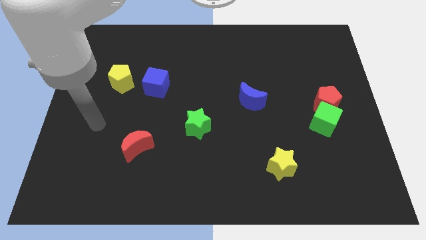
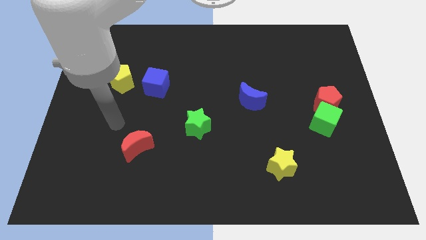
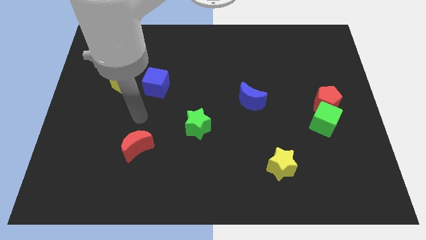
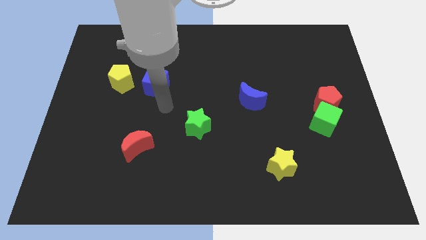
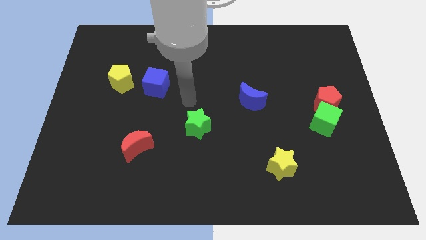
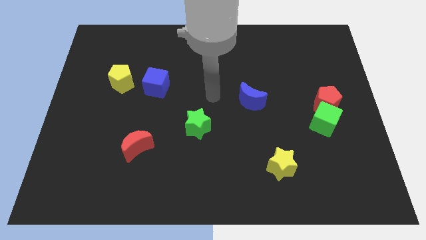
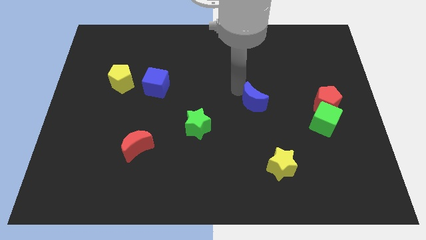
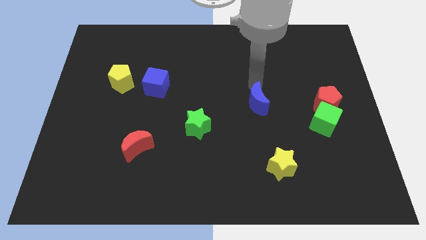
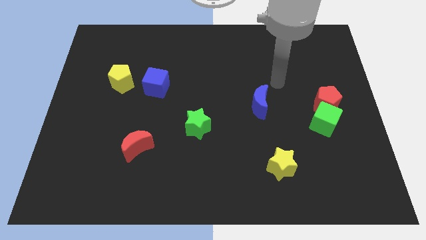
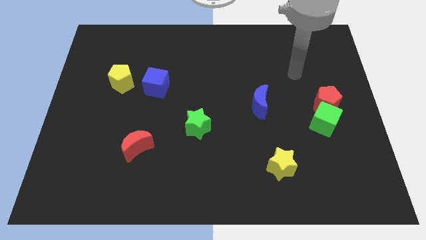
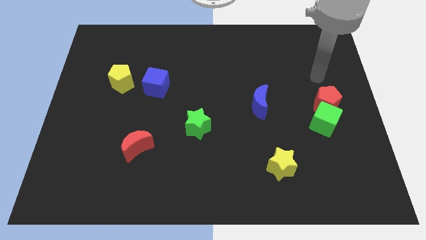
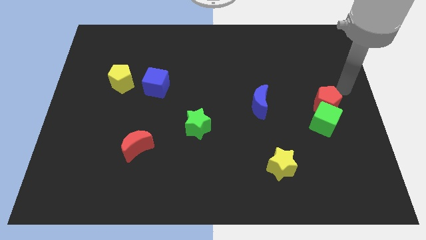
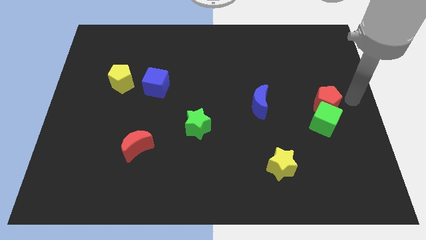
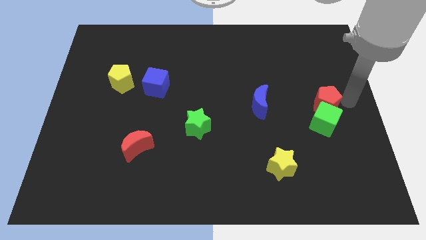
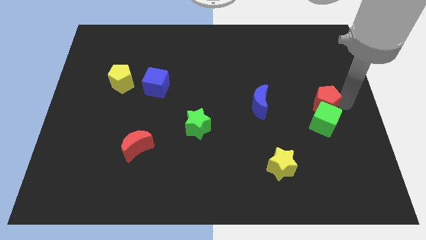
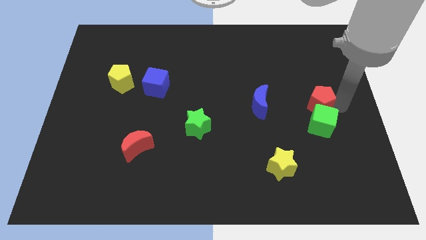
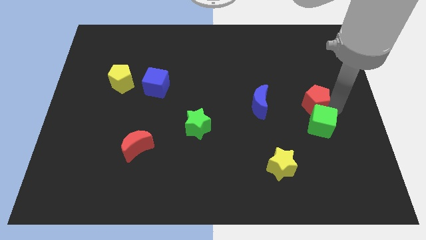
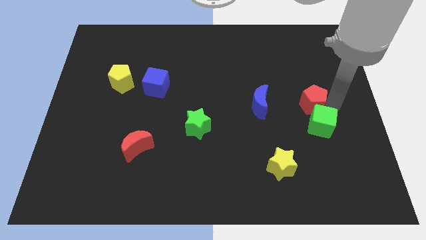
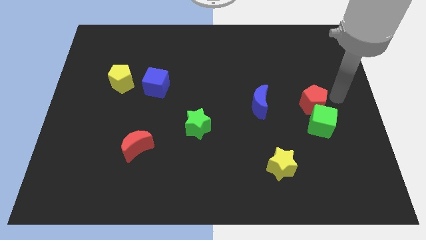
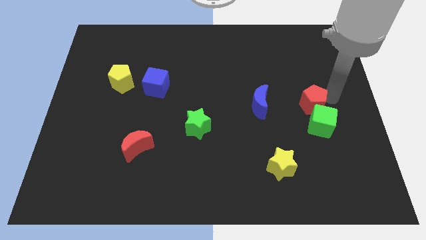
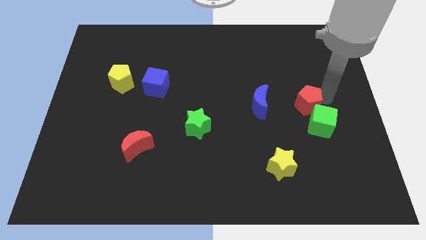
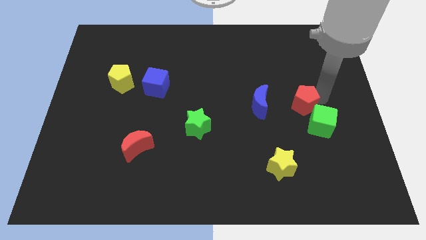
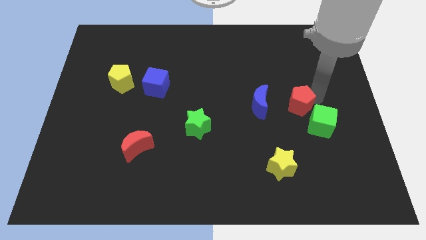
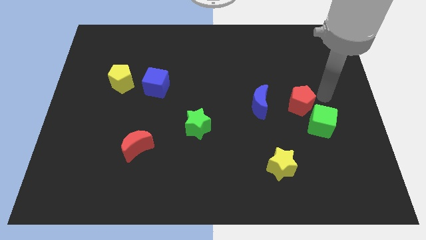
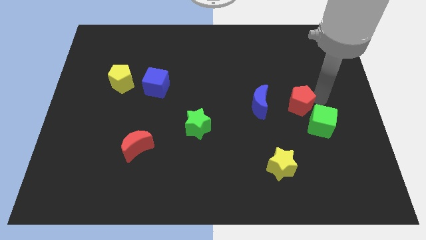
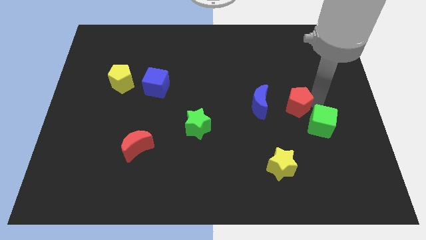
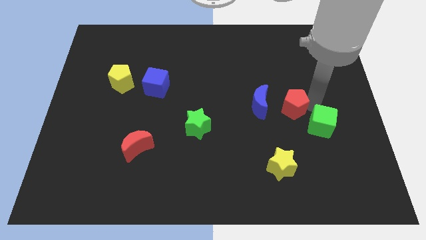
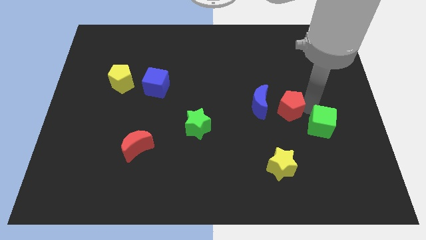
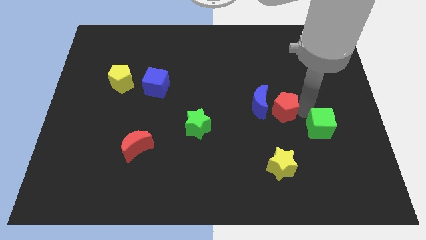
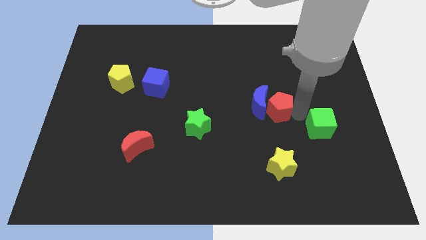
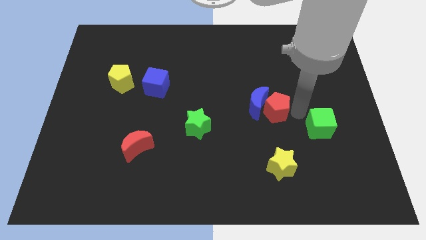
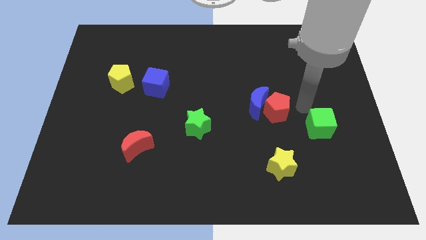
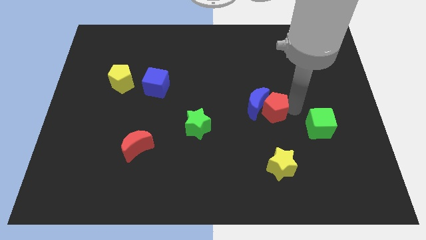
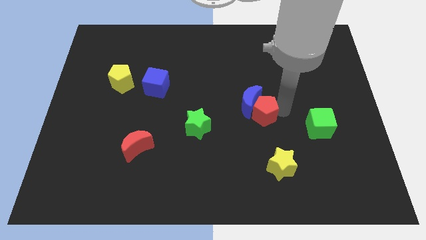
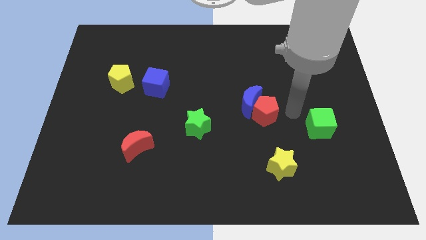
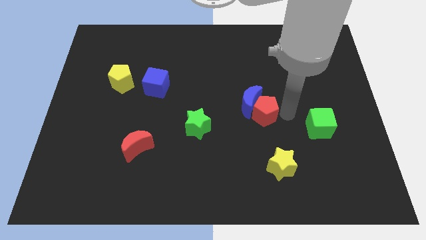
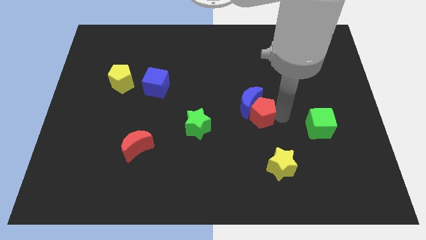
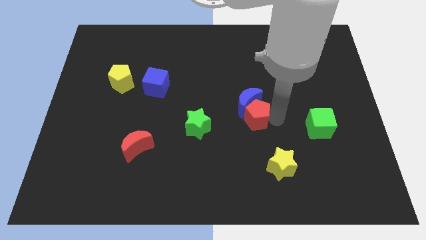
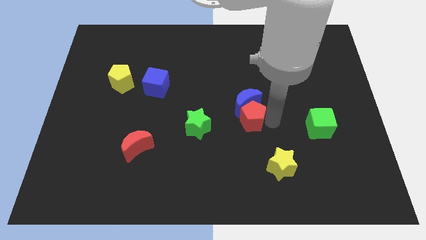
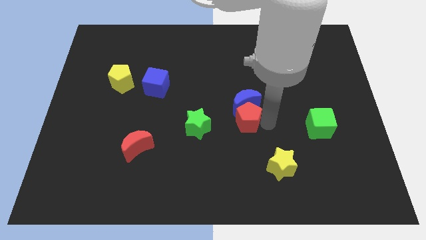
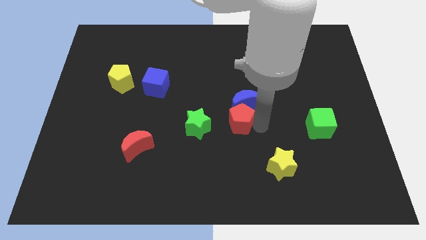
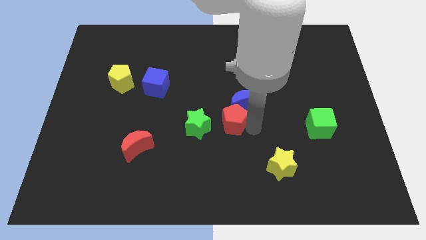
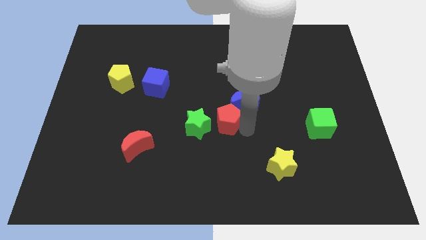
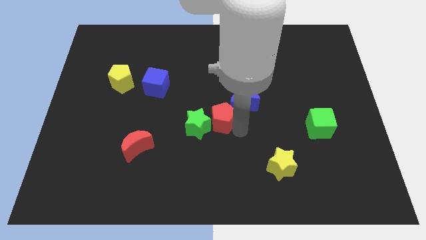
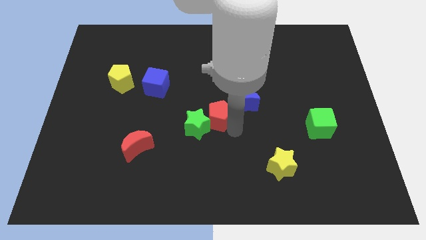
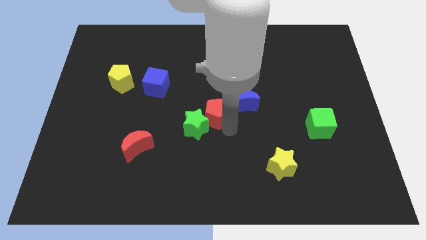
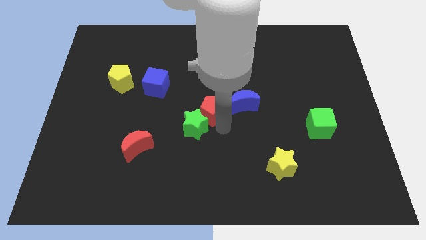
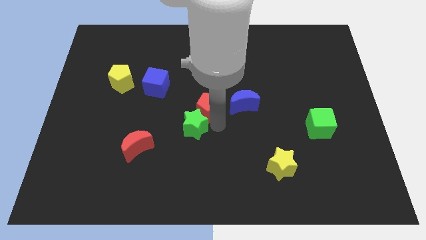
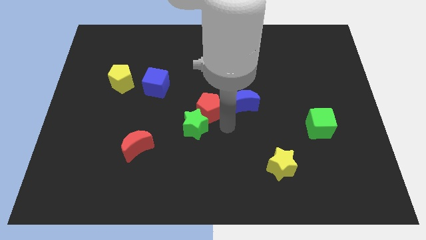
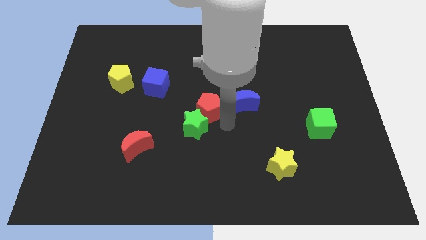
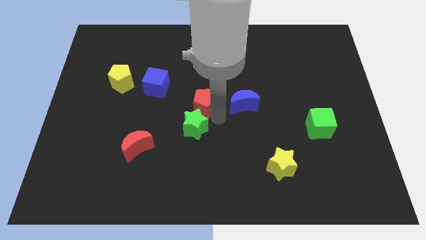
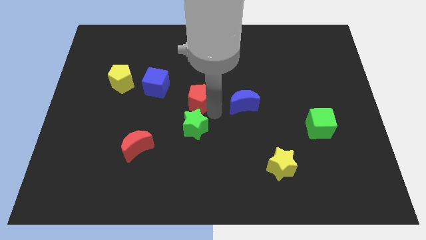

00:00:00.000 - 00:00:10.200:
push the red pentagon to the bottom right side of the blue cube

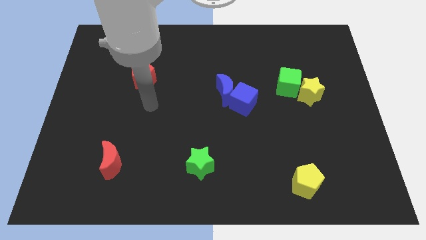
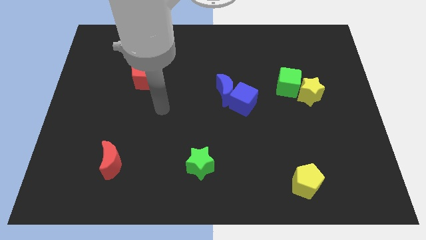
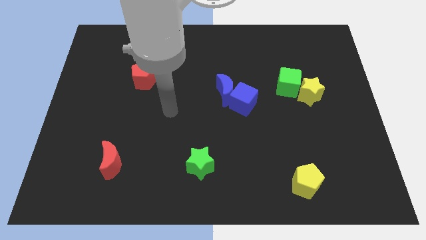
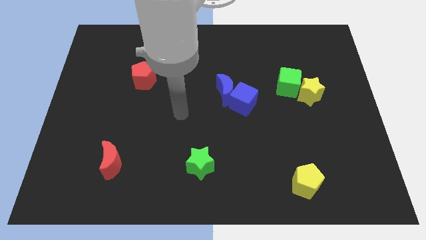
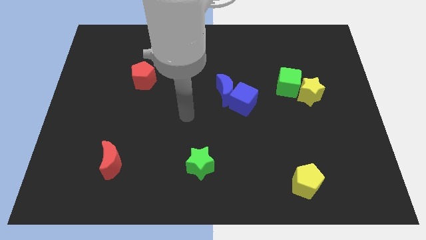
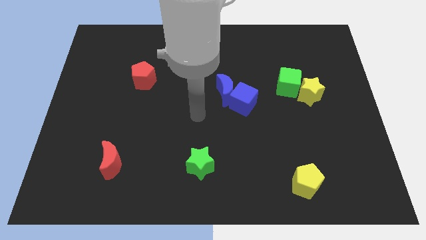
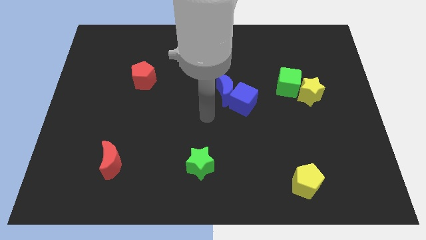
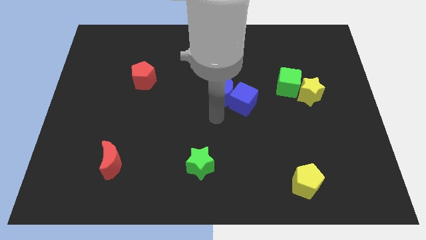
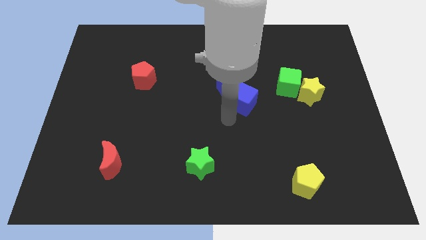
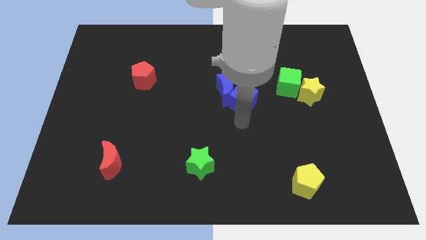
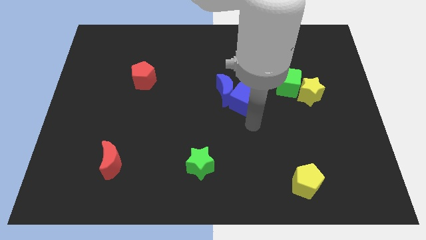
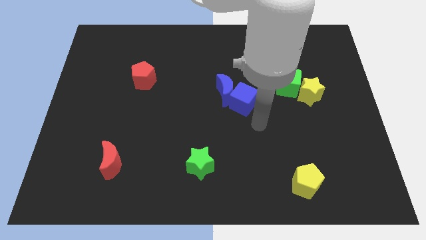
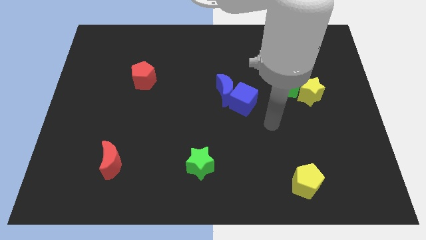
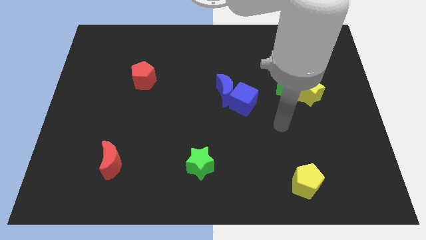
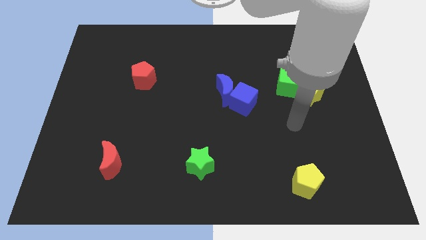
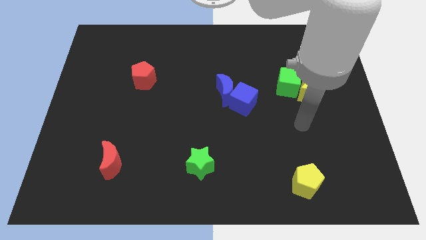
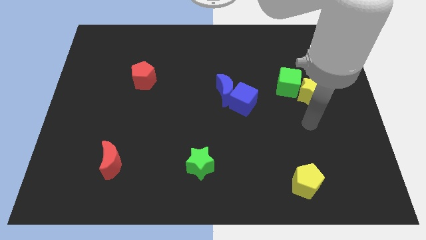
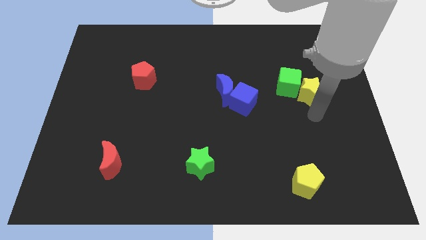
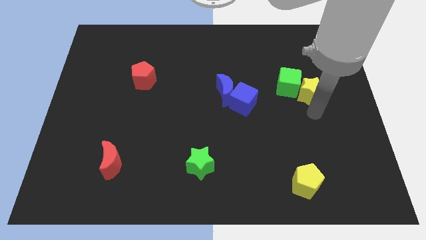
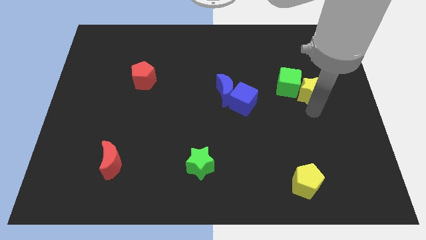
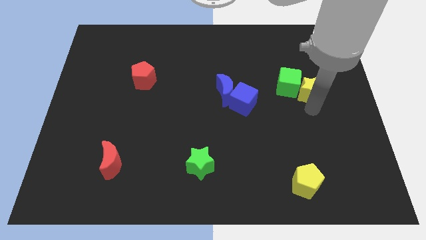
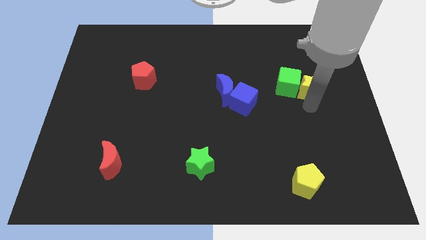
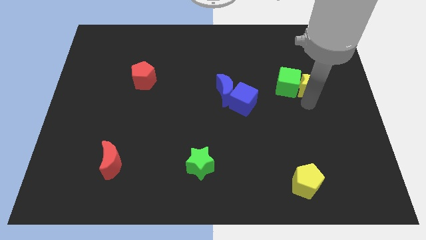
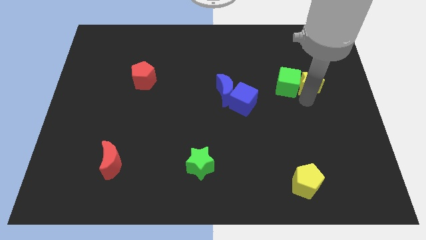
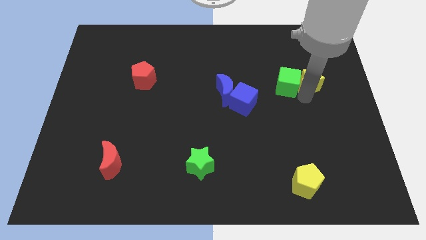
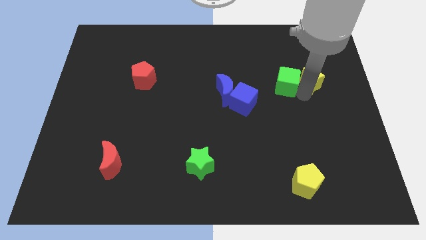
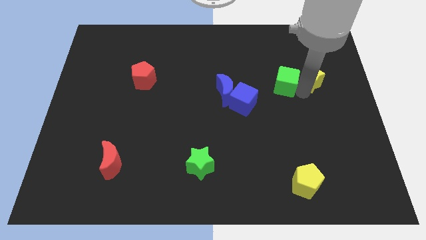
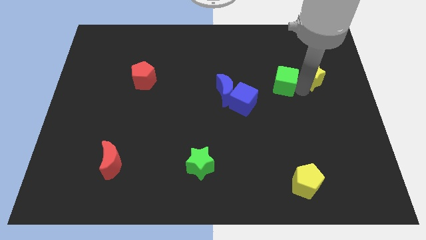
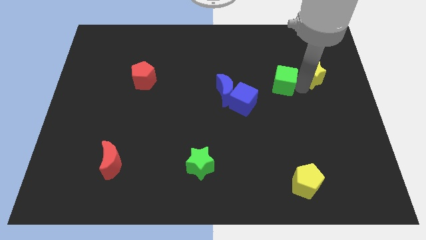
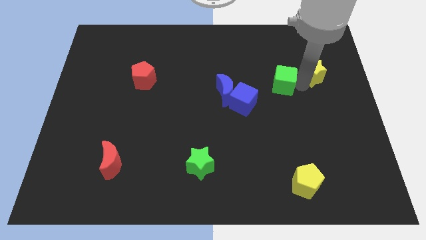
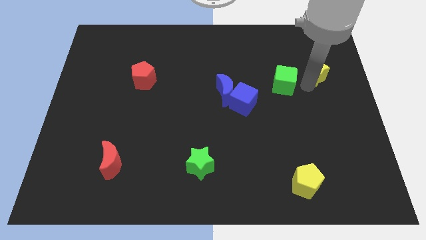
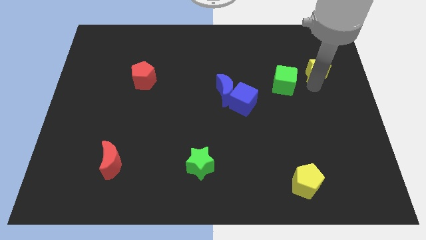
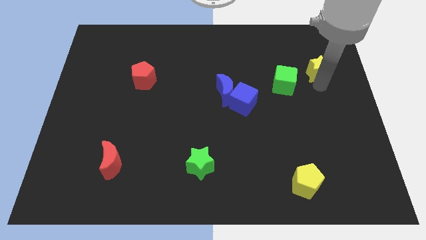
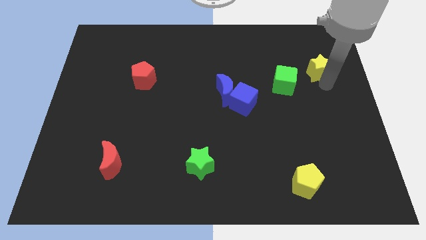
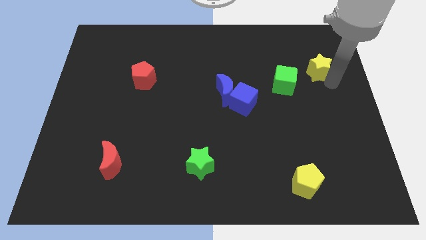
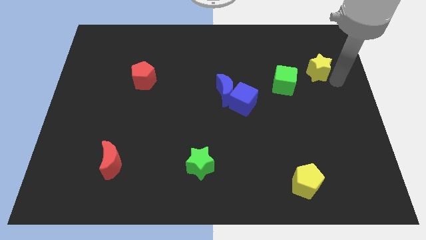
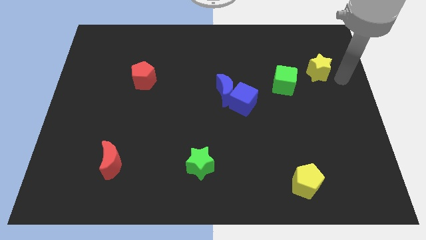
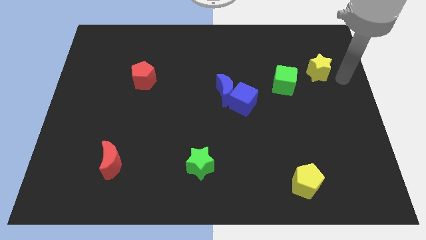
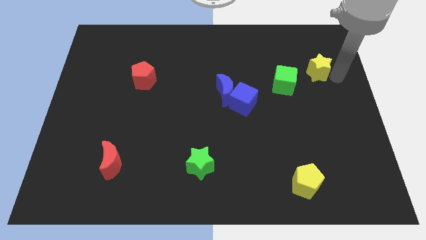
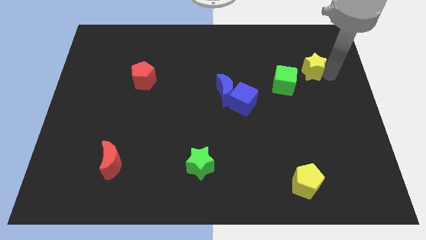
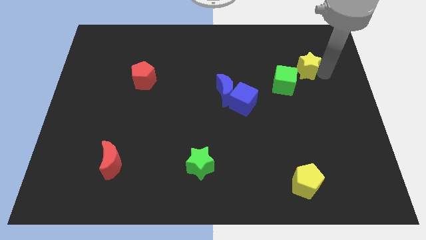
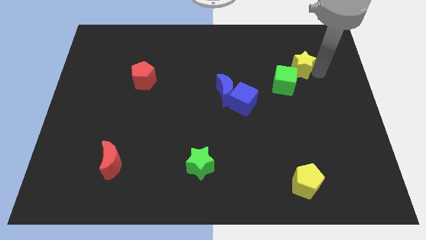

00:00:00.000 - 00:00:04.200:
push the yellow star above the green cube
